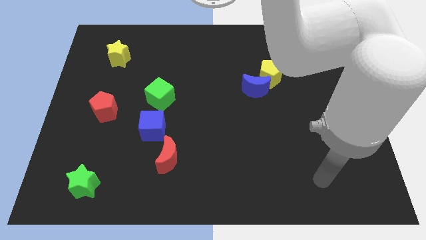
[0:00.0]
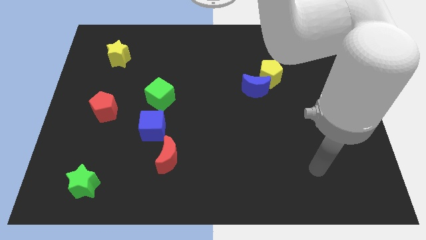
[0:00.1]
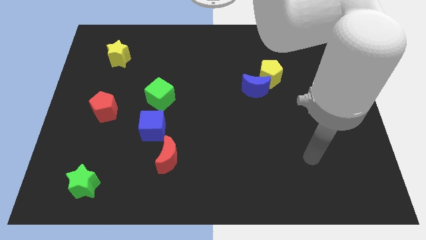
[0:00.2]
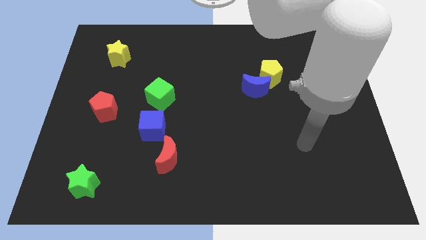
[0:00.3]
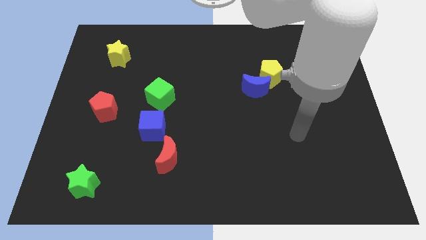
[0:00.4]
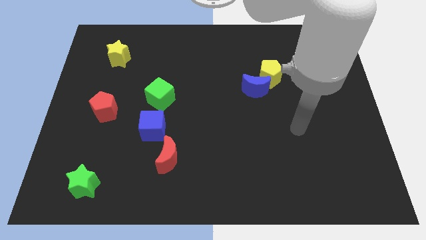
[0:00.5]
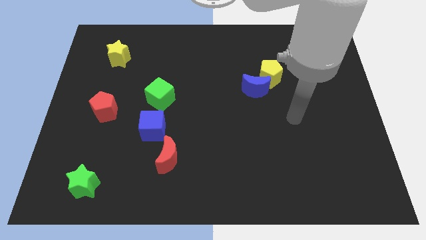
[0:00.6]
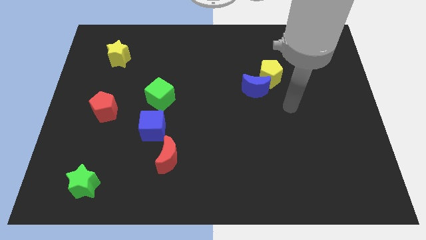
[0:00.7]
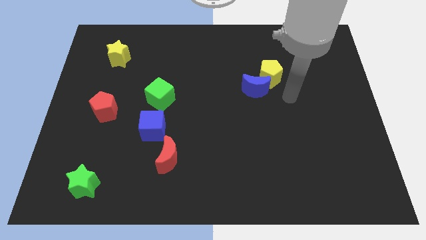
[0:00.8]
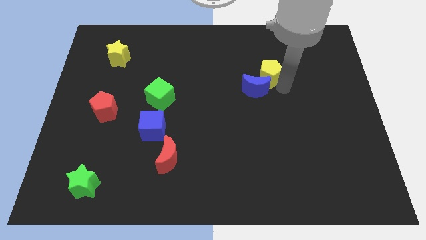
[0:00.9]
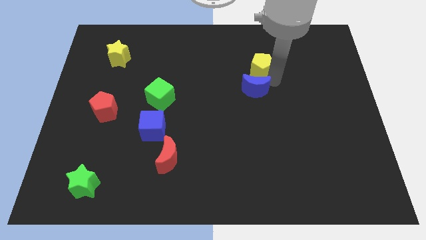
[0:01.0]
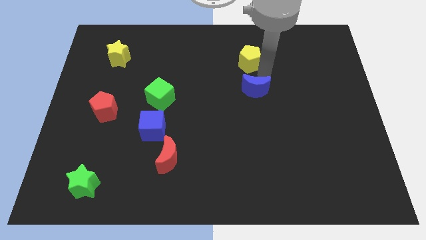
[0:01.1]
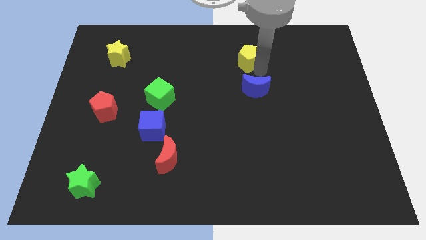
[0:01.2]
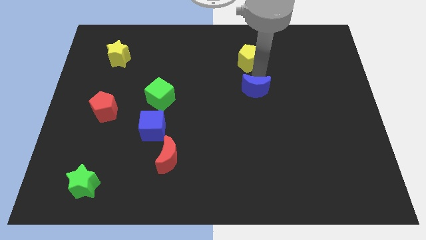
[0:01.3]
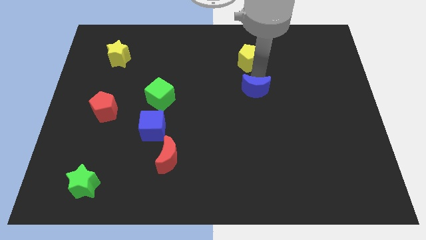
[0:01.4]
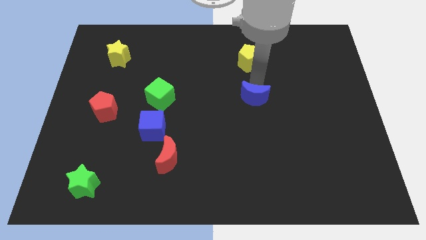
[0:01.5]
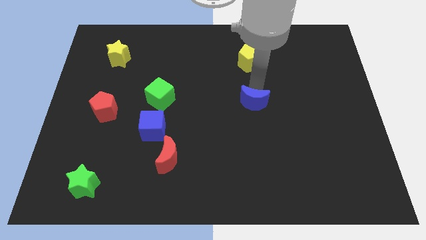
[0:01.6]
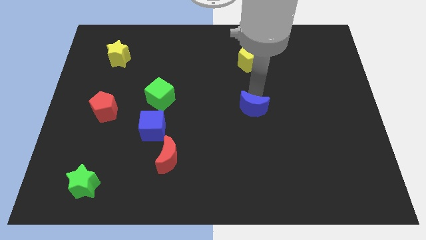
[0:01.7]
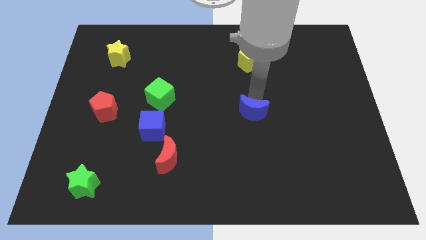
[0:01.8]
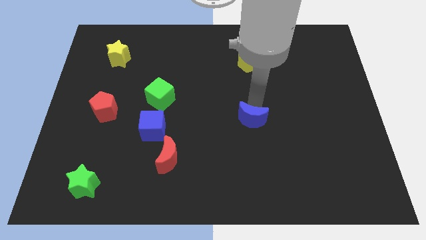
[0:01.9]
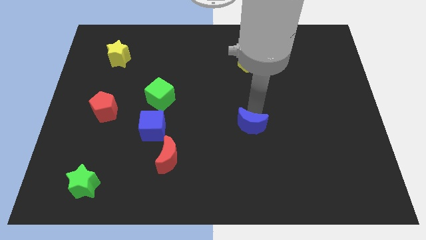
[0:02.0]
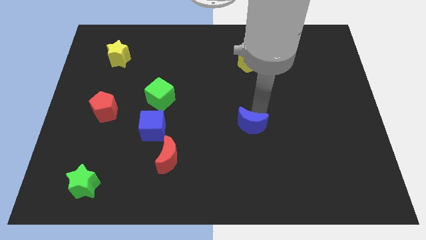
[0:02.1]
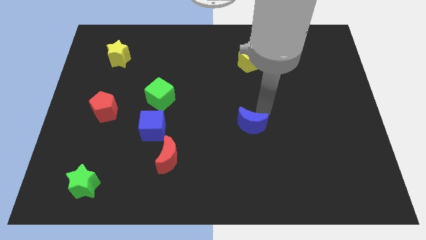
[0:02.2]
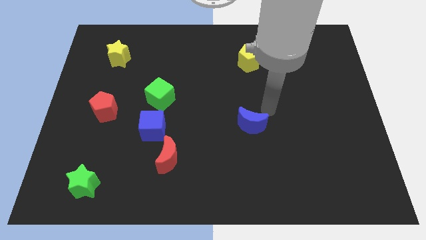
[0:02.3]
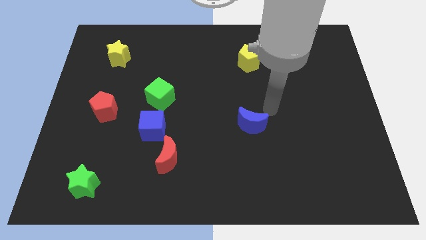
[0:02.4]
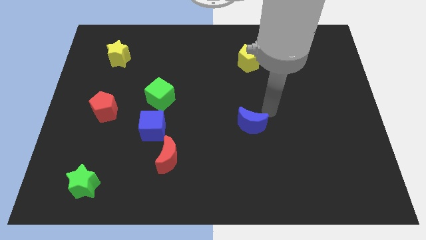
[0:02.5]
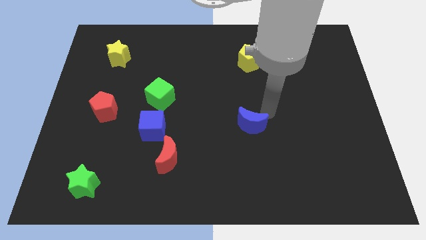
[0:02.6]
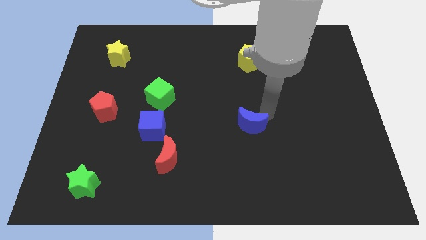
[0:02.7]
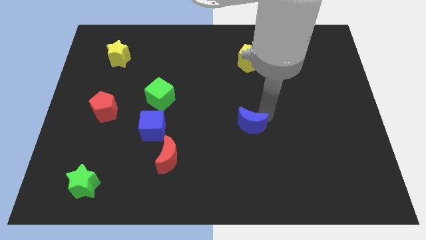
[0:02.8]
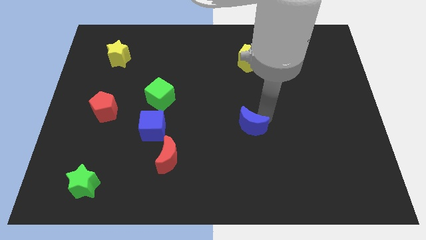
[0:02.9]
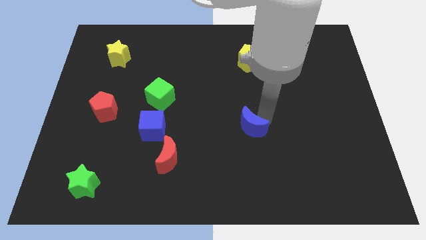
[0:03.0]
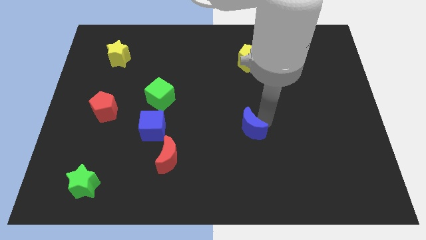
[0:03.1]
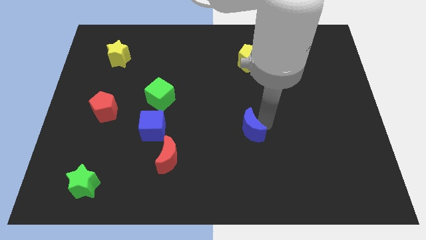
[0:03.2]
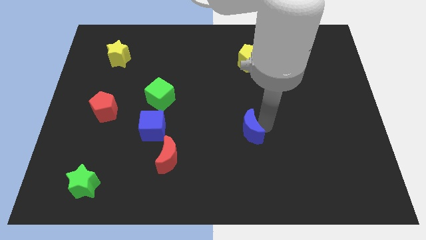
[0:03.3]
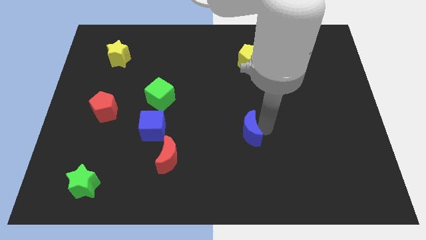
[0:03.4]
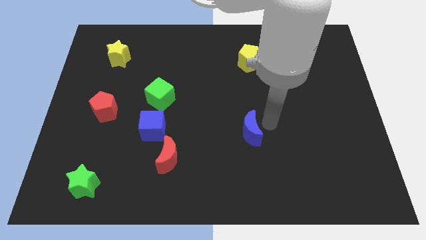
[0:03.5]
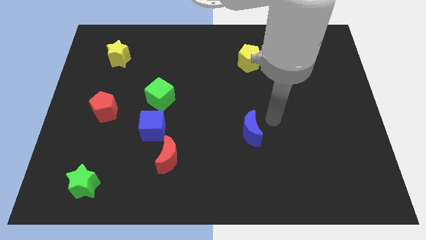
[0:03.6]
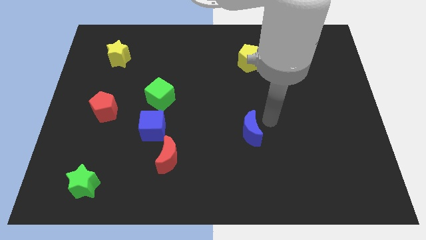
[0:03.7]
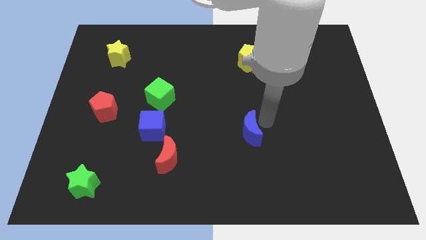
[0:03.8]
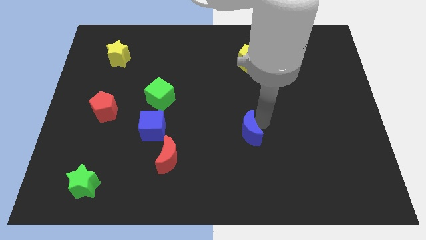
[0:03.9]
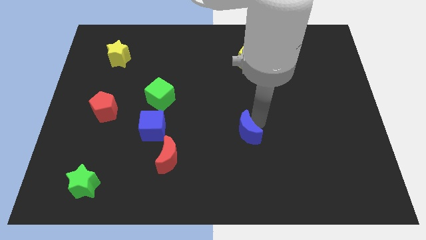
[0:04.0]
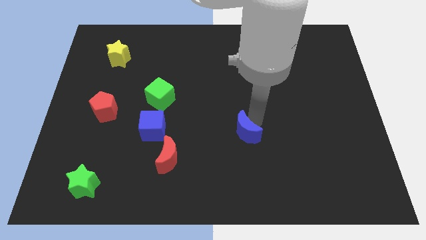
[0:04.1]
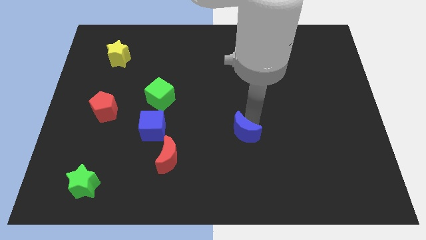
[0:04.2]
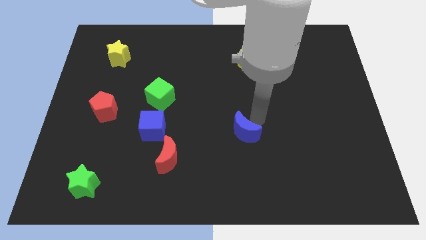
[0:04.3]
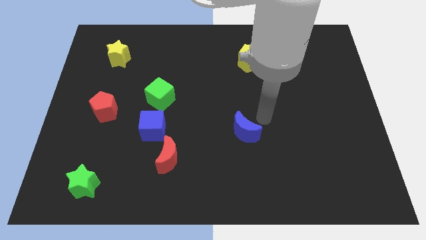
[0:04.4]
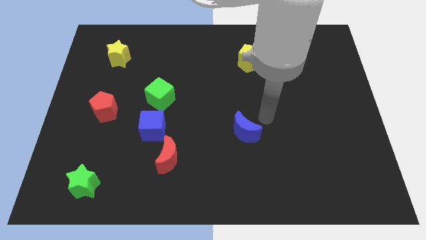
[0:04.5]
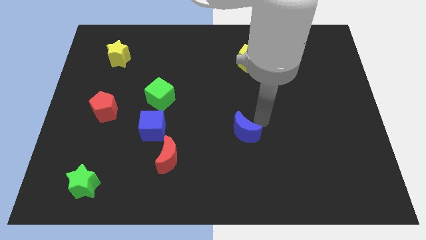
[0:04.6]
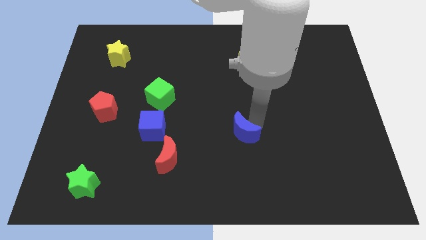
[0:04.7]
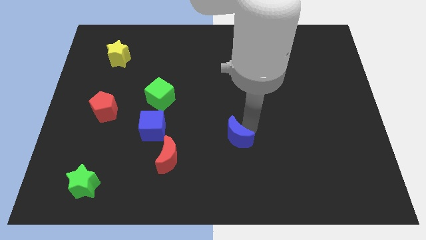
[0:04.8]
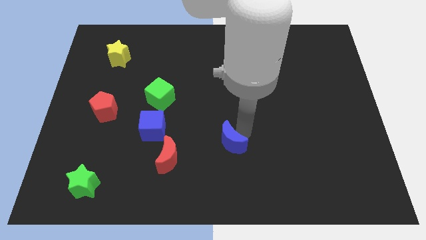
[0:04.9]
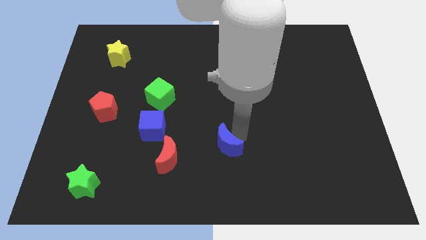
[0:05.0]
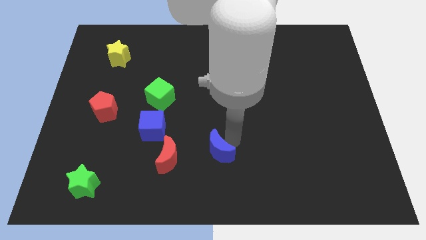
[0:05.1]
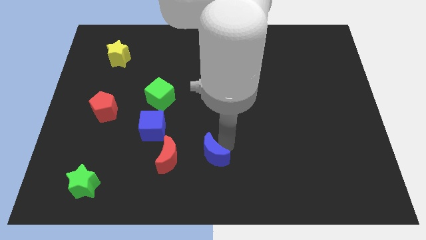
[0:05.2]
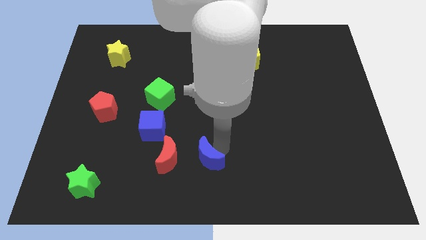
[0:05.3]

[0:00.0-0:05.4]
push the blue moon down and then left

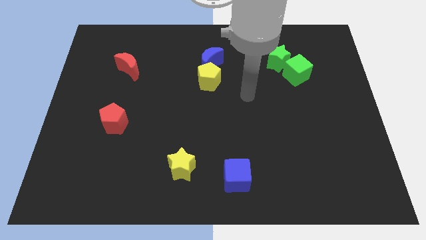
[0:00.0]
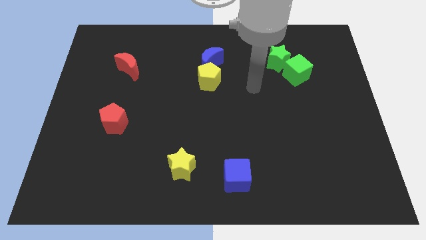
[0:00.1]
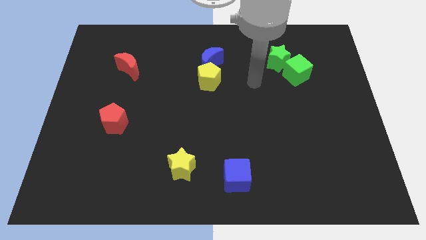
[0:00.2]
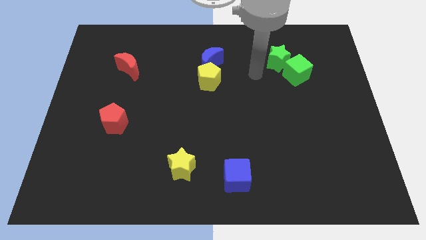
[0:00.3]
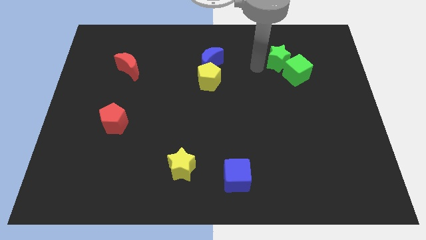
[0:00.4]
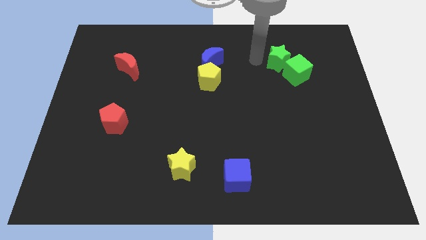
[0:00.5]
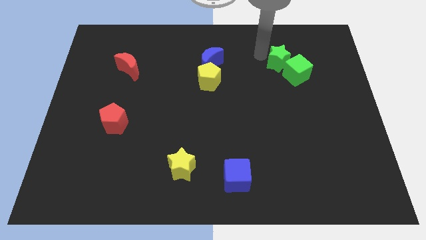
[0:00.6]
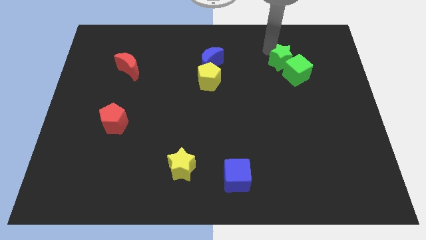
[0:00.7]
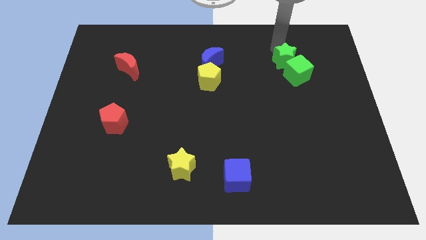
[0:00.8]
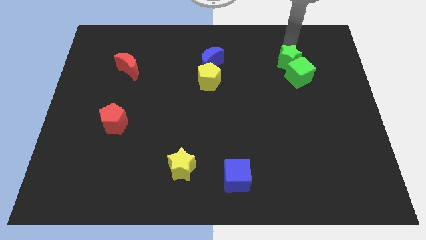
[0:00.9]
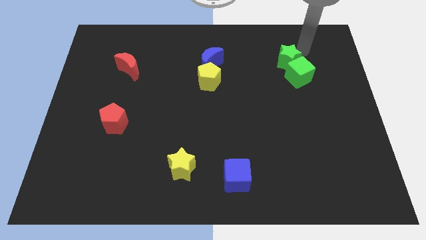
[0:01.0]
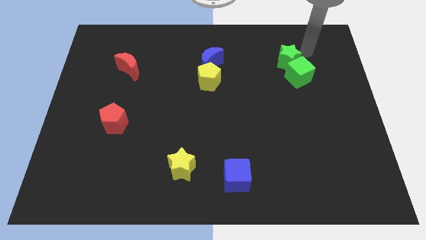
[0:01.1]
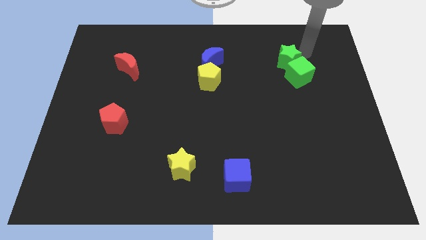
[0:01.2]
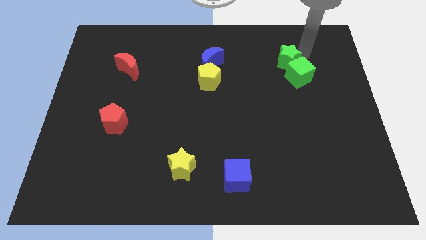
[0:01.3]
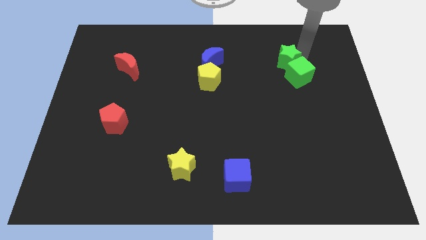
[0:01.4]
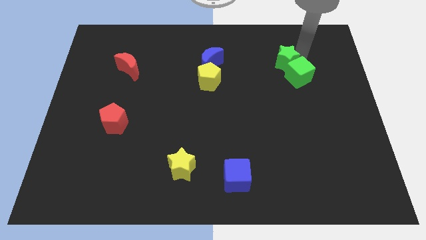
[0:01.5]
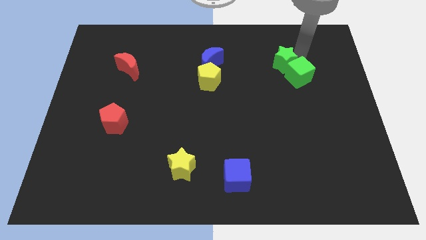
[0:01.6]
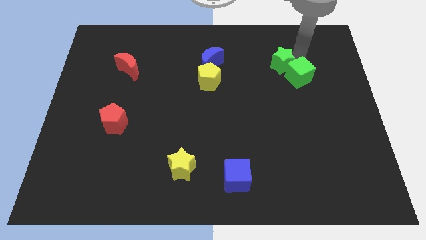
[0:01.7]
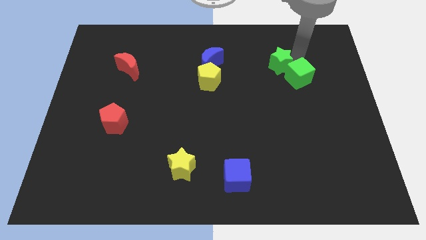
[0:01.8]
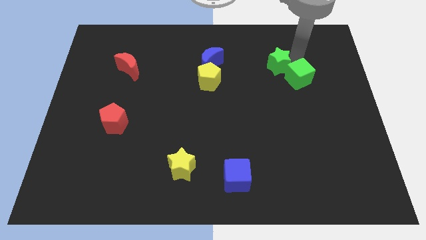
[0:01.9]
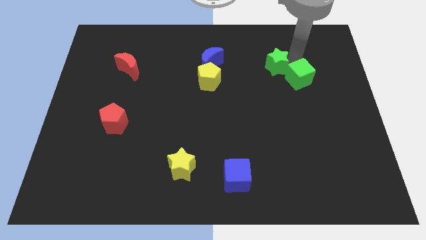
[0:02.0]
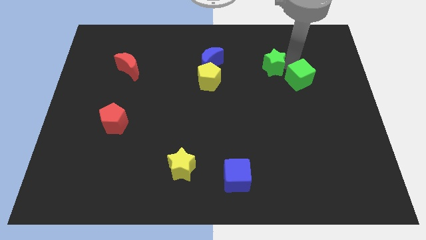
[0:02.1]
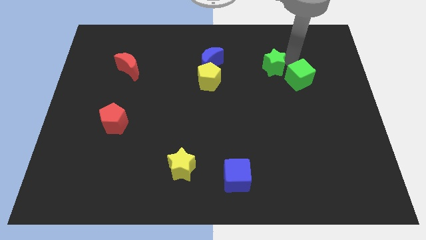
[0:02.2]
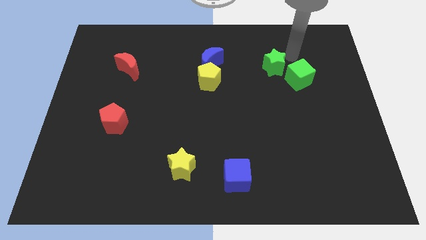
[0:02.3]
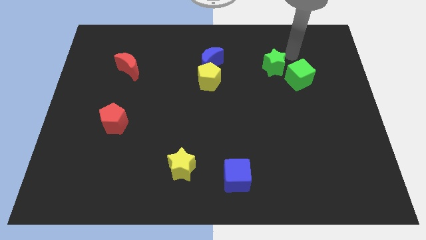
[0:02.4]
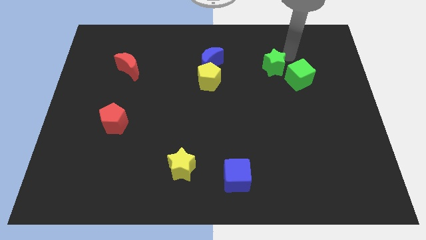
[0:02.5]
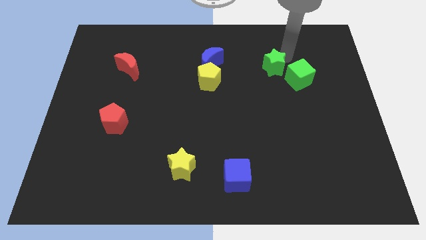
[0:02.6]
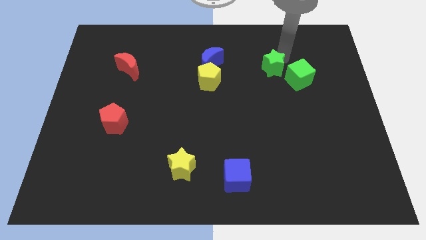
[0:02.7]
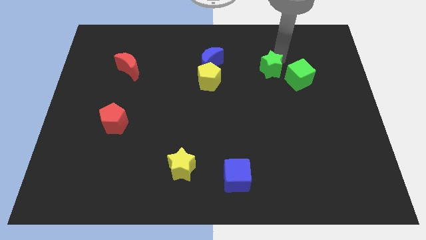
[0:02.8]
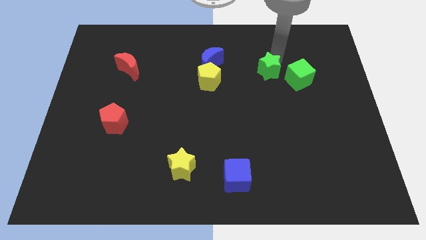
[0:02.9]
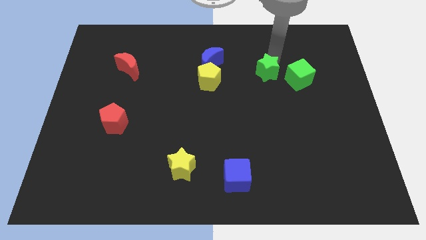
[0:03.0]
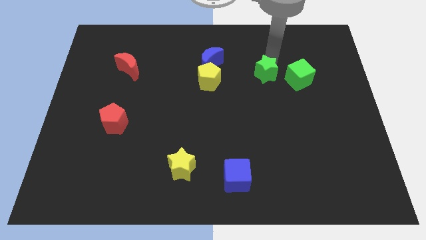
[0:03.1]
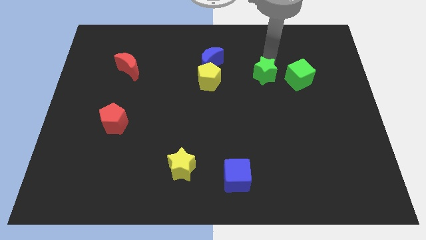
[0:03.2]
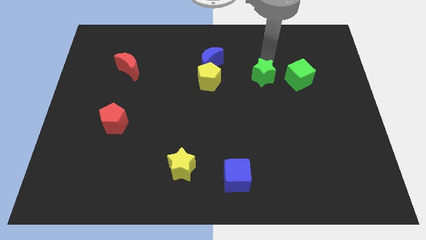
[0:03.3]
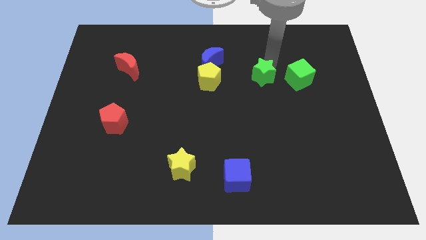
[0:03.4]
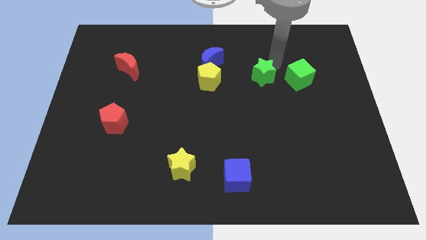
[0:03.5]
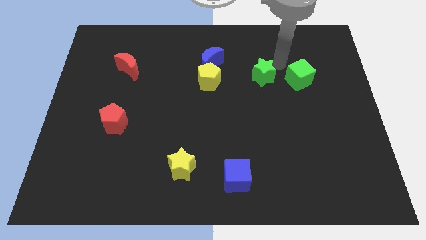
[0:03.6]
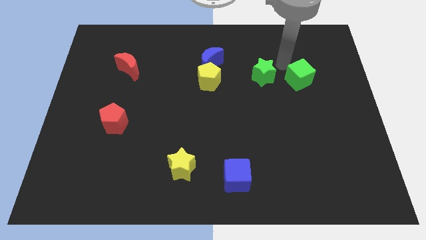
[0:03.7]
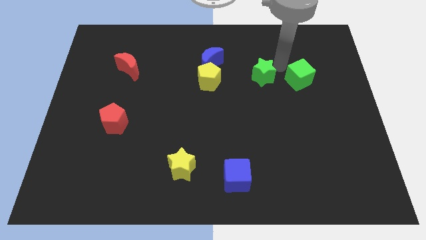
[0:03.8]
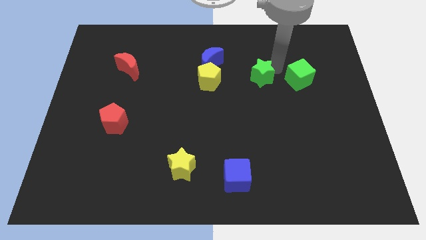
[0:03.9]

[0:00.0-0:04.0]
slide the green star somewhat diagonally down and left
